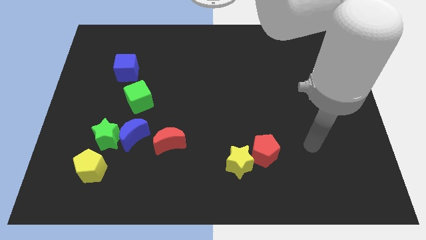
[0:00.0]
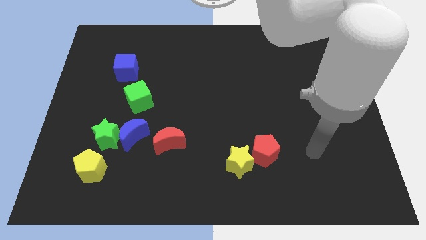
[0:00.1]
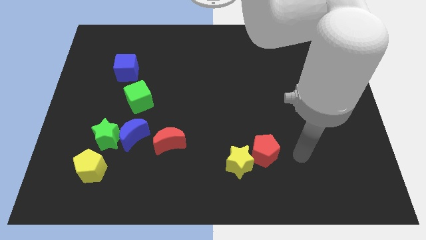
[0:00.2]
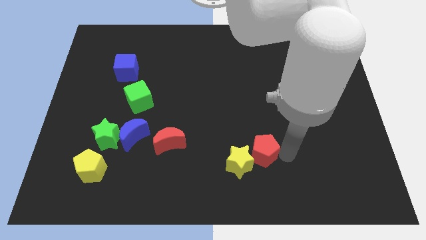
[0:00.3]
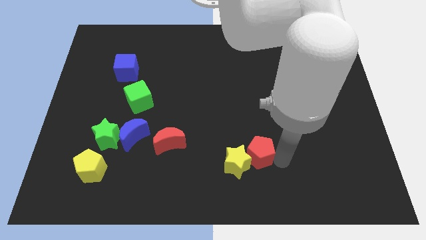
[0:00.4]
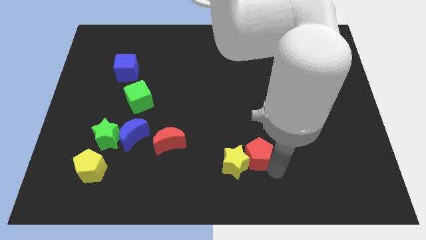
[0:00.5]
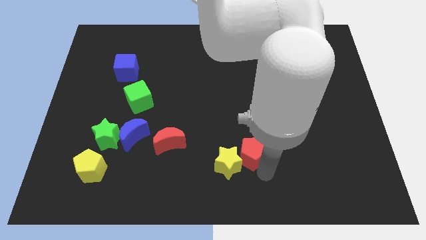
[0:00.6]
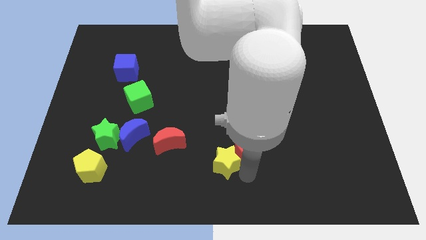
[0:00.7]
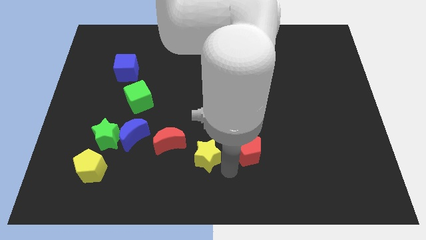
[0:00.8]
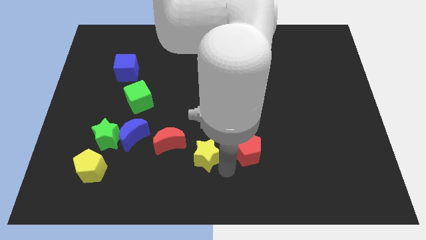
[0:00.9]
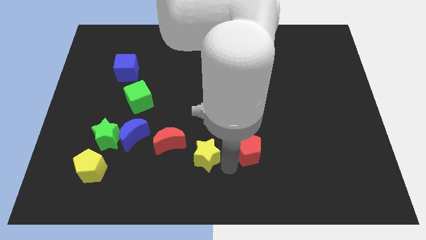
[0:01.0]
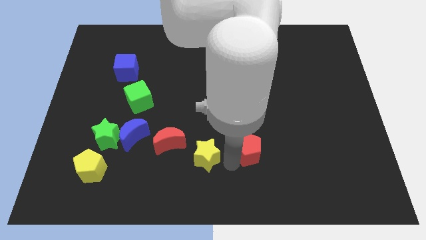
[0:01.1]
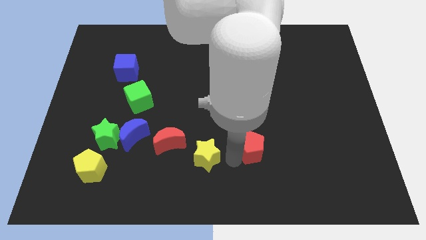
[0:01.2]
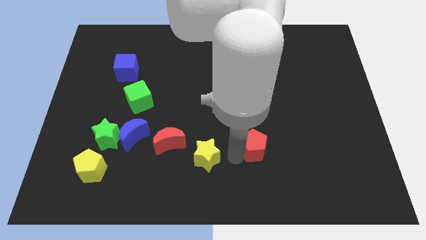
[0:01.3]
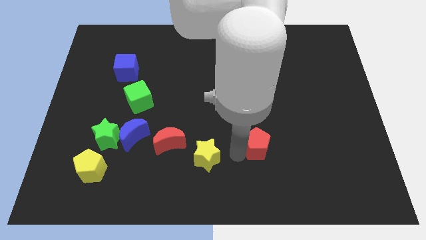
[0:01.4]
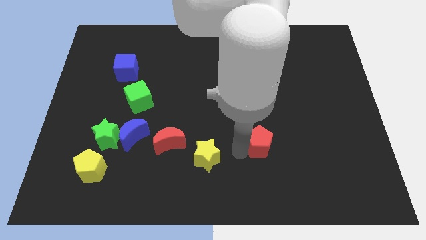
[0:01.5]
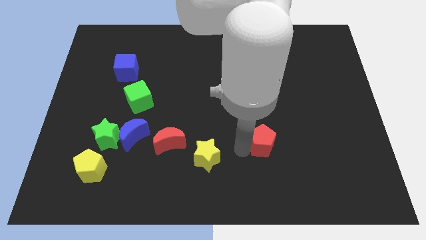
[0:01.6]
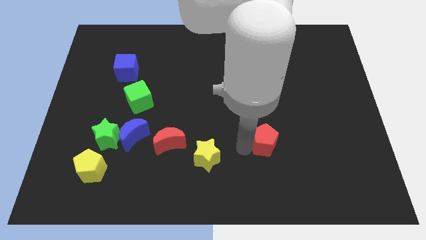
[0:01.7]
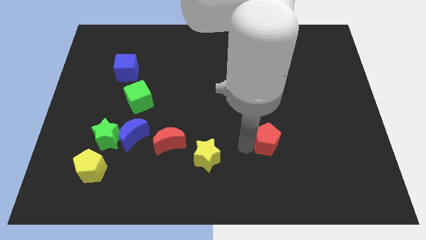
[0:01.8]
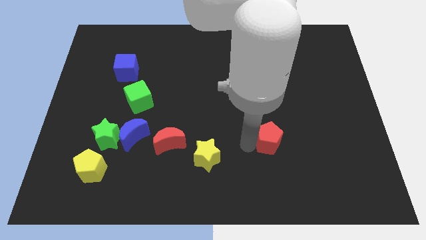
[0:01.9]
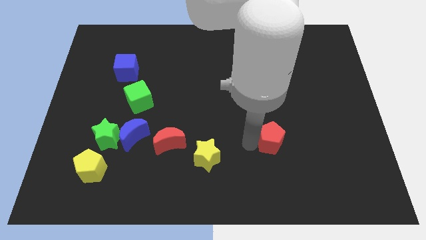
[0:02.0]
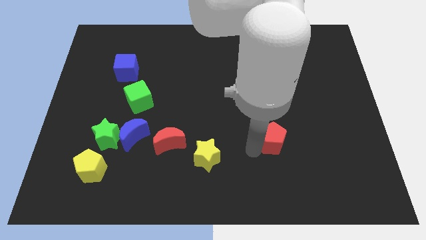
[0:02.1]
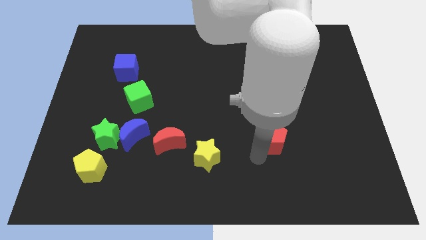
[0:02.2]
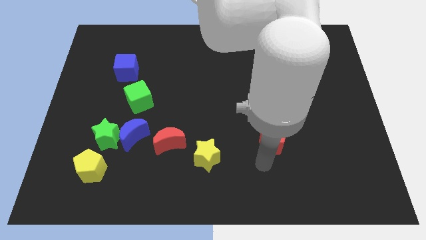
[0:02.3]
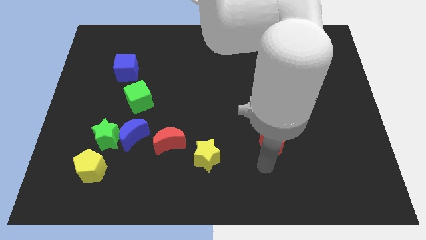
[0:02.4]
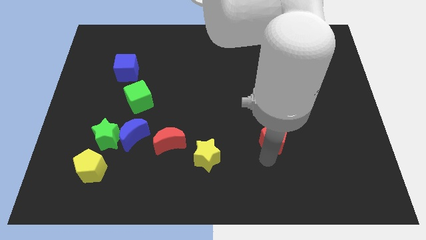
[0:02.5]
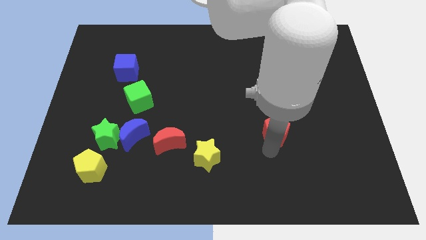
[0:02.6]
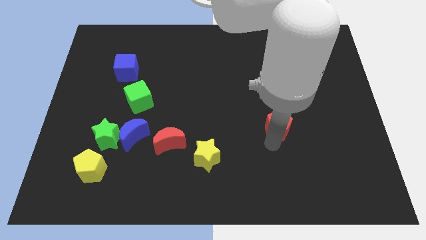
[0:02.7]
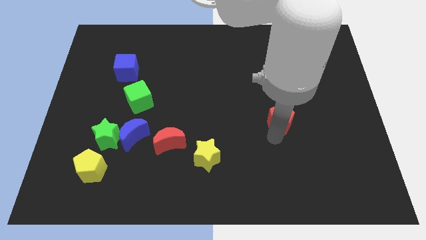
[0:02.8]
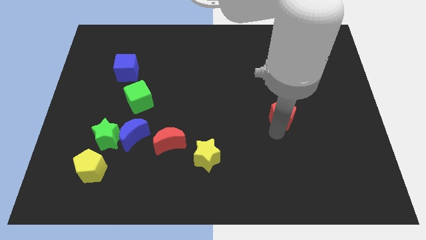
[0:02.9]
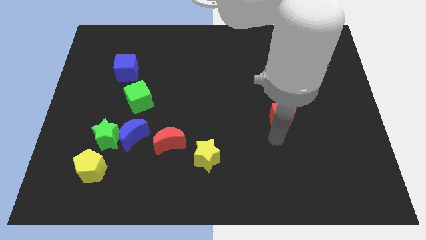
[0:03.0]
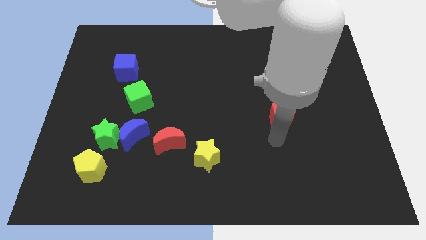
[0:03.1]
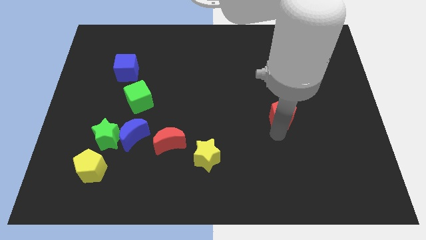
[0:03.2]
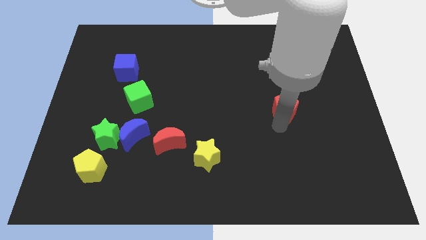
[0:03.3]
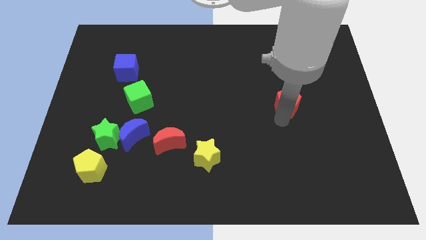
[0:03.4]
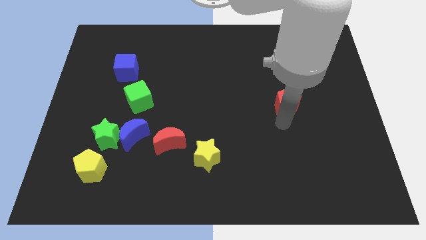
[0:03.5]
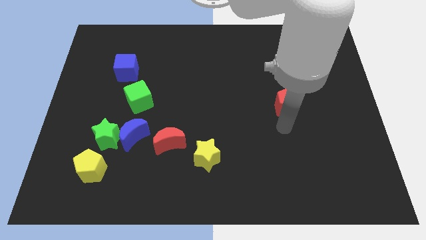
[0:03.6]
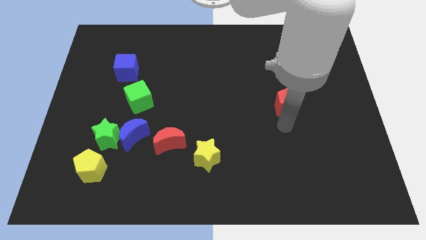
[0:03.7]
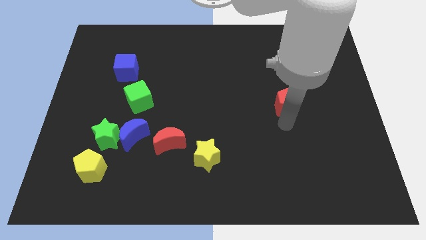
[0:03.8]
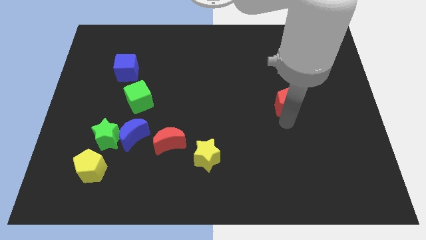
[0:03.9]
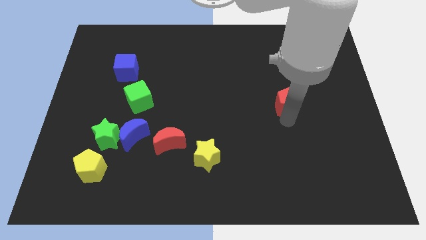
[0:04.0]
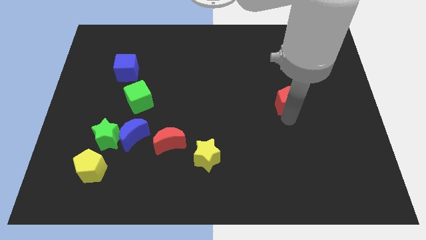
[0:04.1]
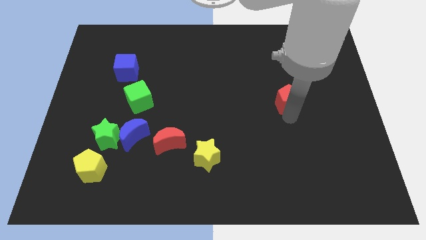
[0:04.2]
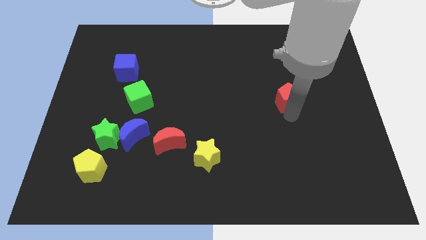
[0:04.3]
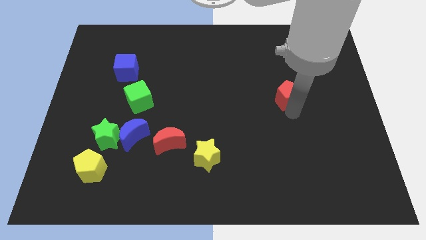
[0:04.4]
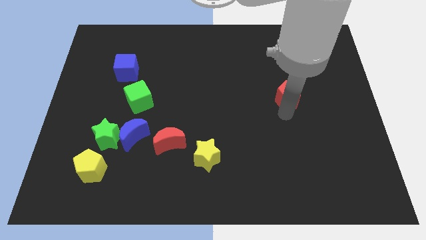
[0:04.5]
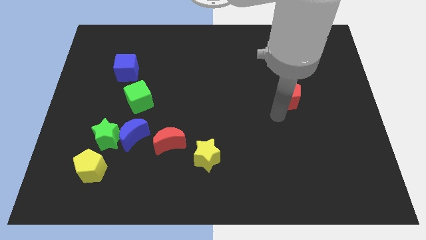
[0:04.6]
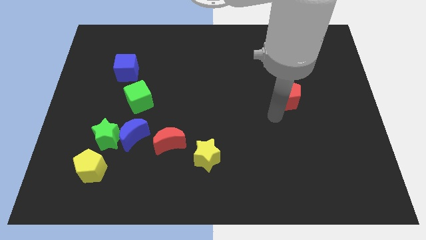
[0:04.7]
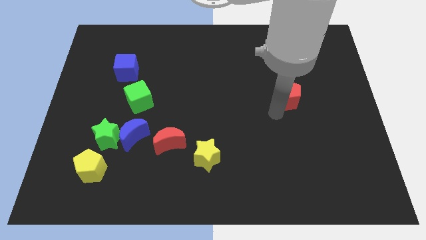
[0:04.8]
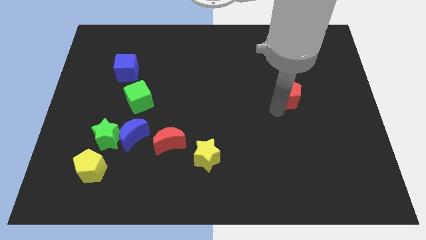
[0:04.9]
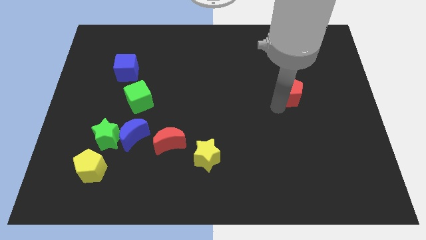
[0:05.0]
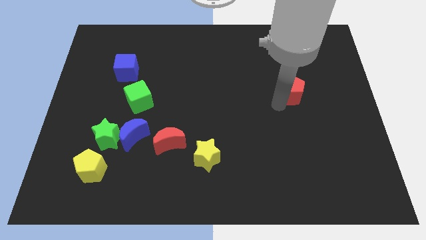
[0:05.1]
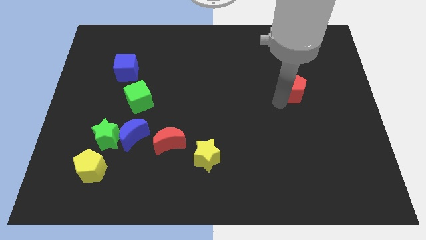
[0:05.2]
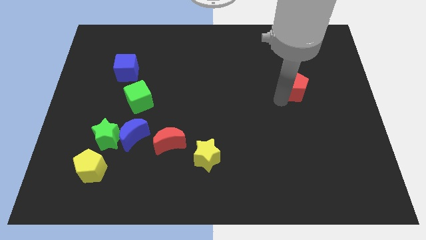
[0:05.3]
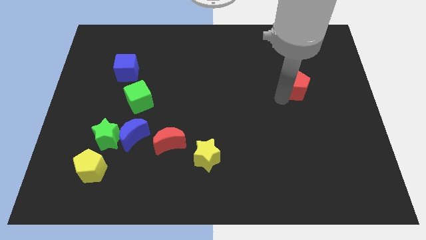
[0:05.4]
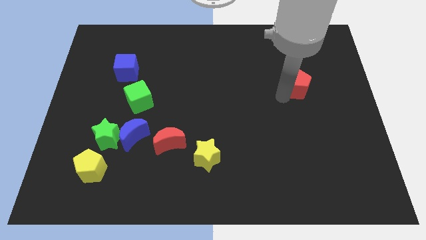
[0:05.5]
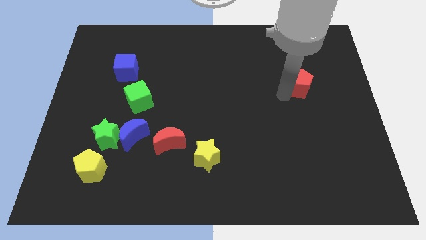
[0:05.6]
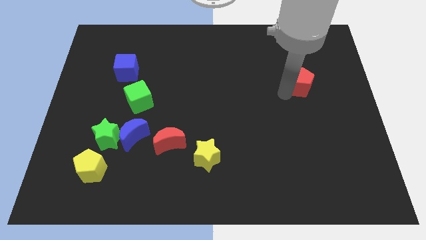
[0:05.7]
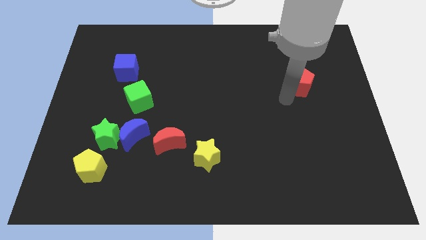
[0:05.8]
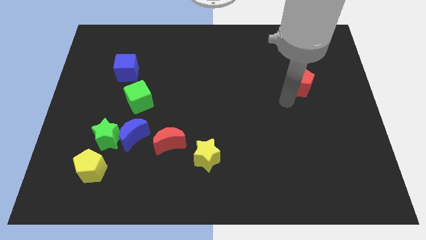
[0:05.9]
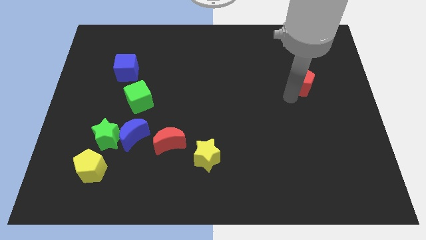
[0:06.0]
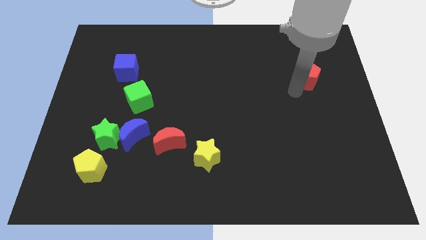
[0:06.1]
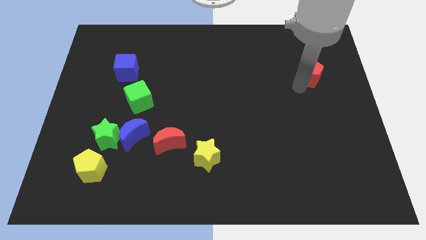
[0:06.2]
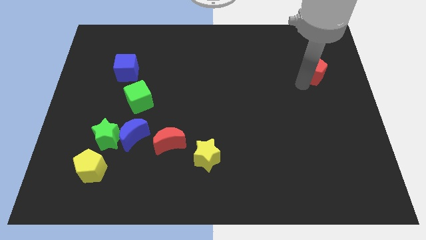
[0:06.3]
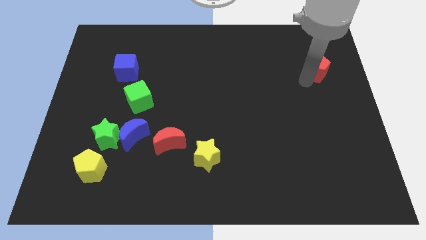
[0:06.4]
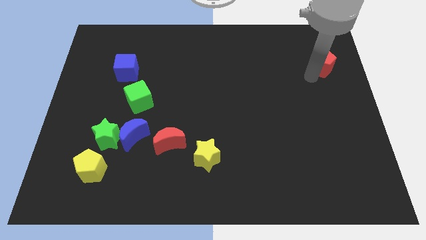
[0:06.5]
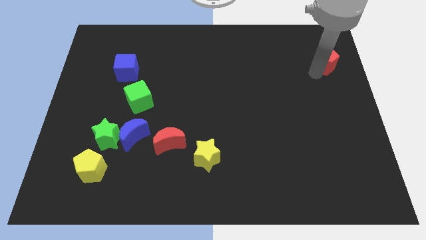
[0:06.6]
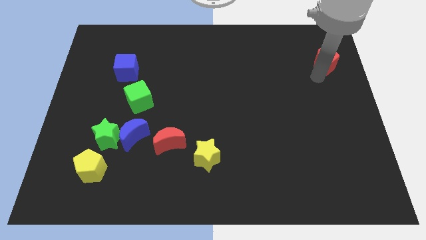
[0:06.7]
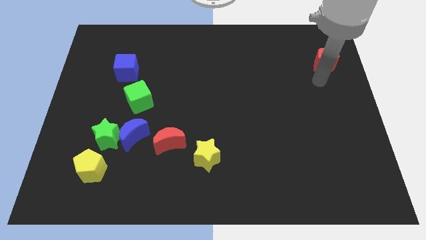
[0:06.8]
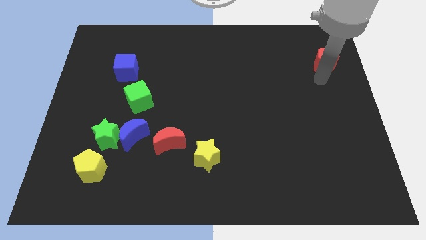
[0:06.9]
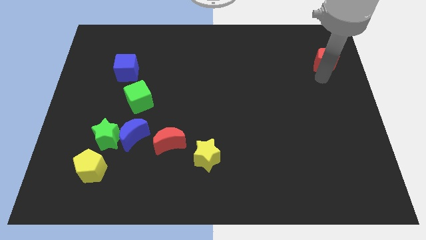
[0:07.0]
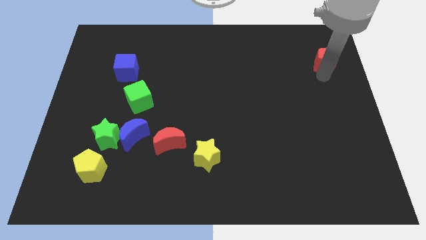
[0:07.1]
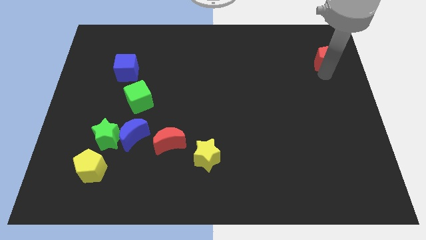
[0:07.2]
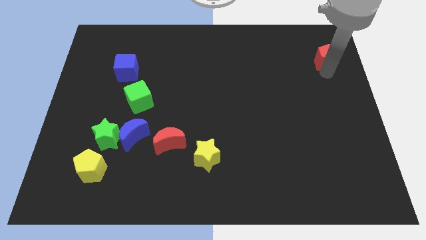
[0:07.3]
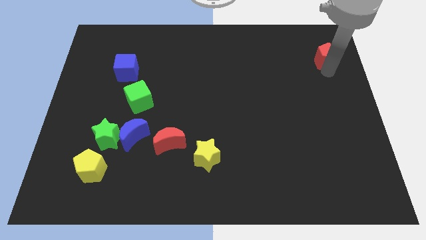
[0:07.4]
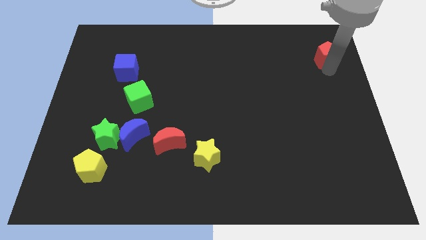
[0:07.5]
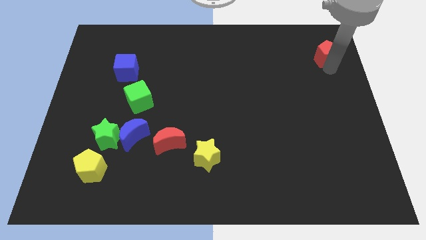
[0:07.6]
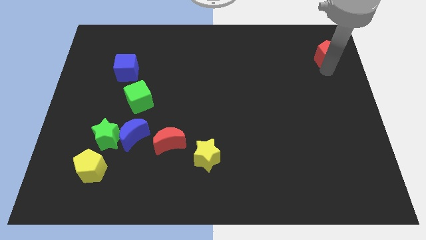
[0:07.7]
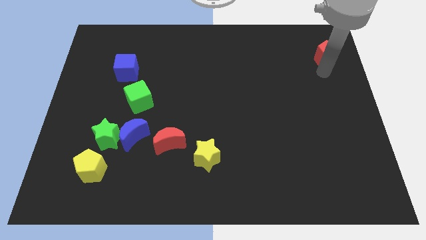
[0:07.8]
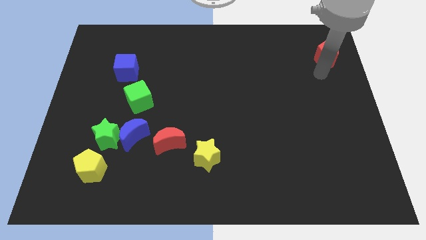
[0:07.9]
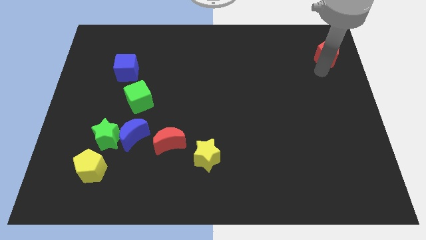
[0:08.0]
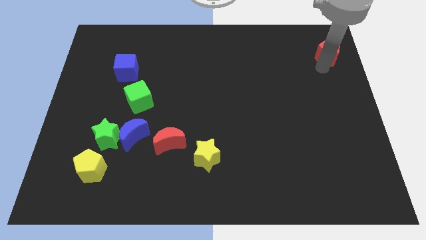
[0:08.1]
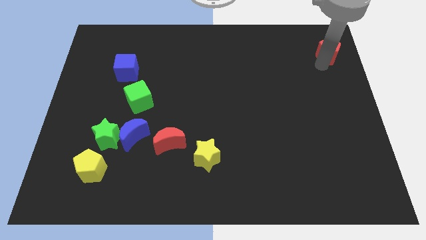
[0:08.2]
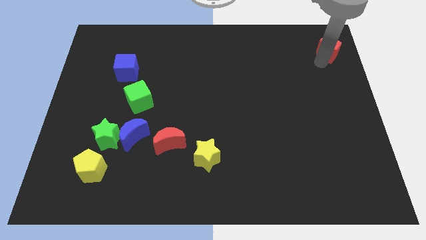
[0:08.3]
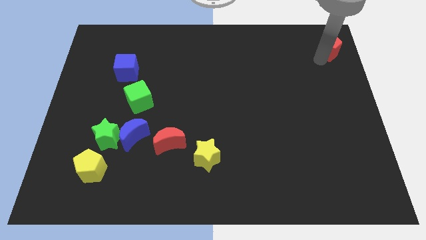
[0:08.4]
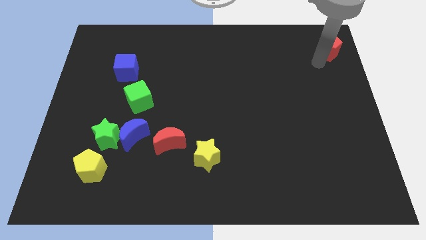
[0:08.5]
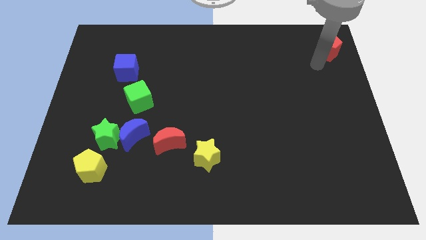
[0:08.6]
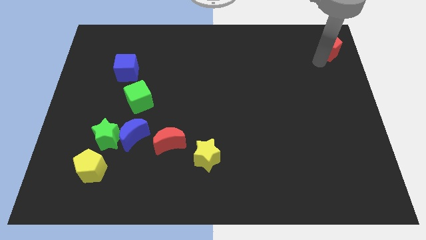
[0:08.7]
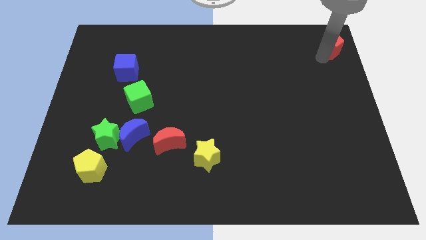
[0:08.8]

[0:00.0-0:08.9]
move the red pentagon to the upper right corner
